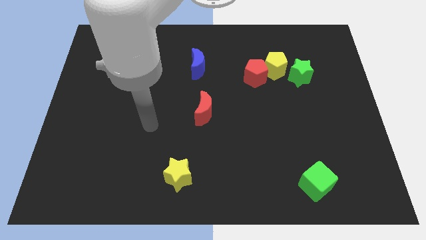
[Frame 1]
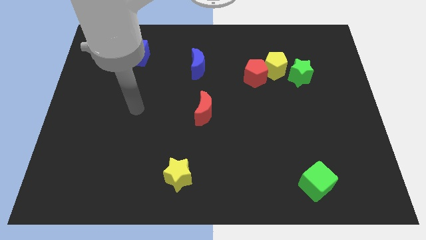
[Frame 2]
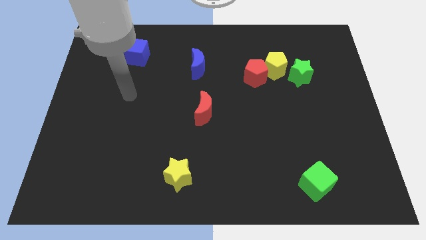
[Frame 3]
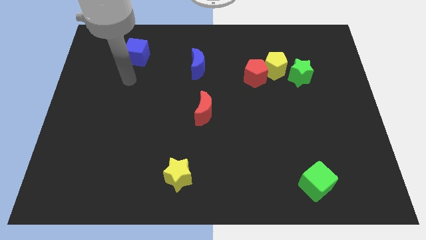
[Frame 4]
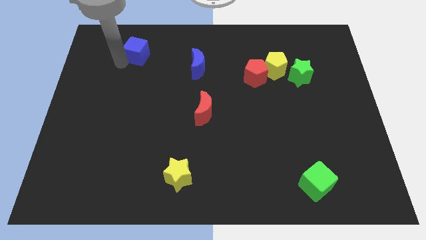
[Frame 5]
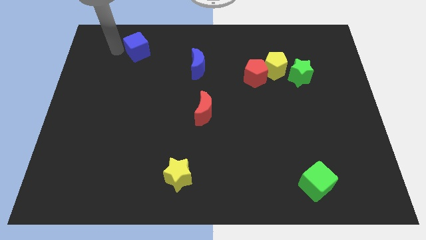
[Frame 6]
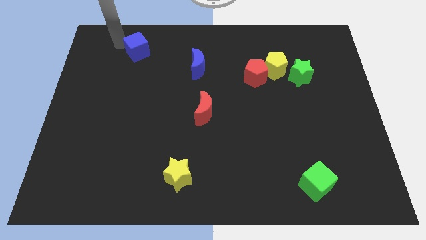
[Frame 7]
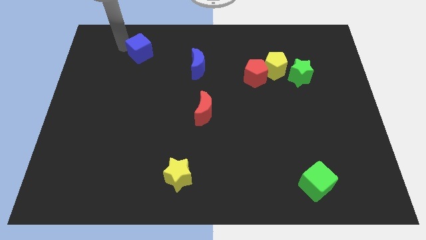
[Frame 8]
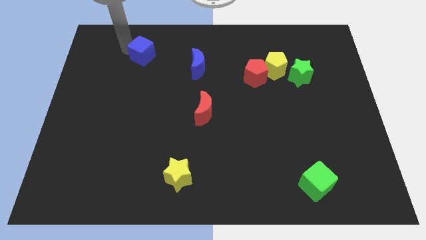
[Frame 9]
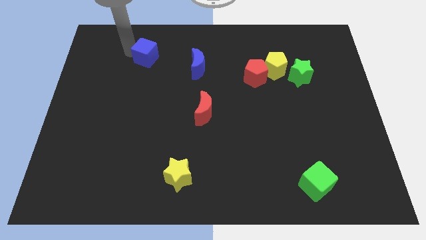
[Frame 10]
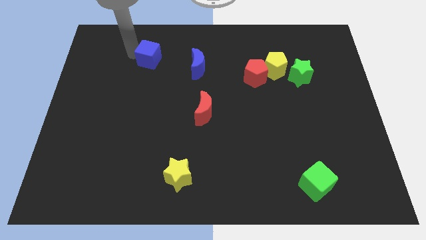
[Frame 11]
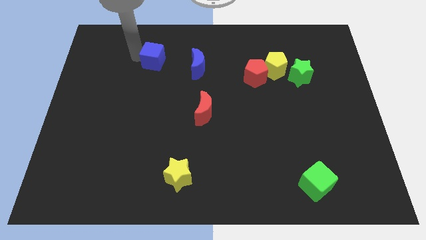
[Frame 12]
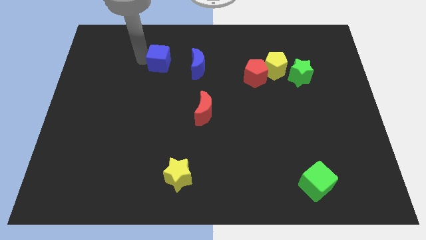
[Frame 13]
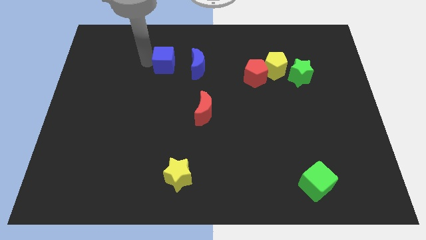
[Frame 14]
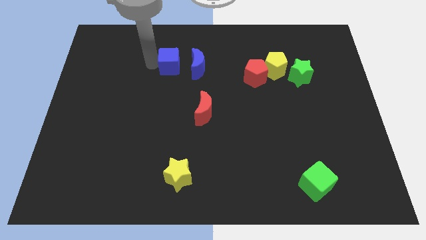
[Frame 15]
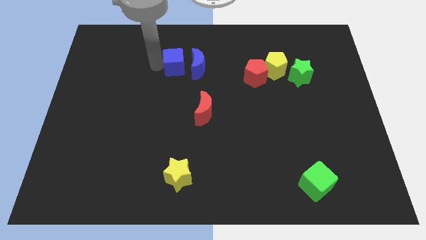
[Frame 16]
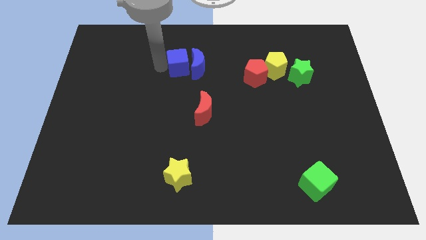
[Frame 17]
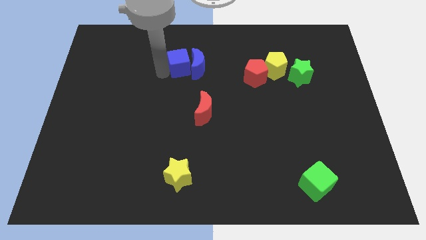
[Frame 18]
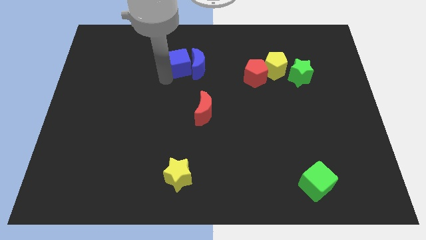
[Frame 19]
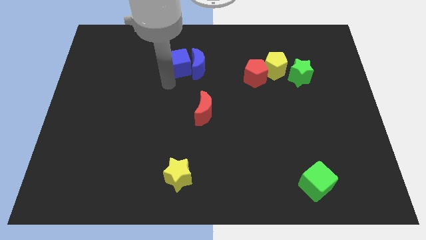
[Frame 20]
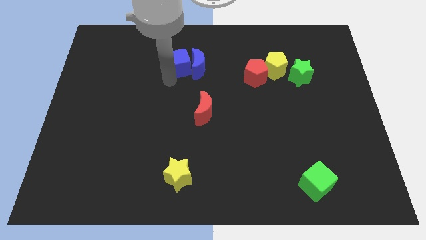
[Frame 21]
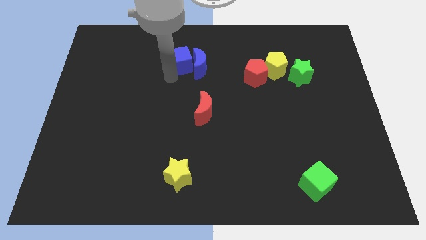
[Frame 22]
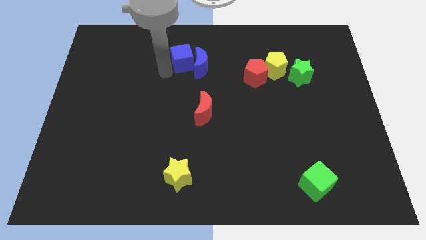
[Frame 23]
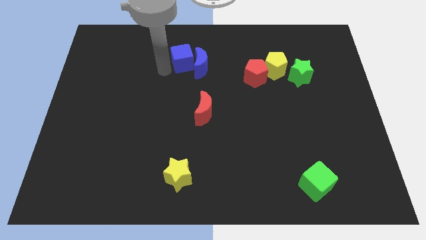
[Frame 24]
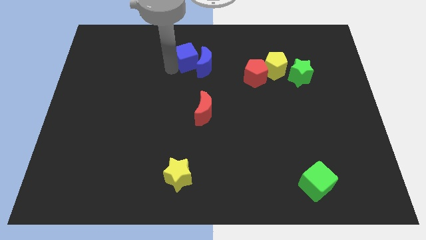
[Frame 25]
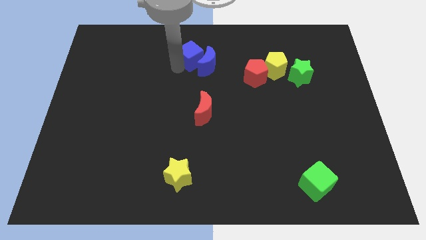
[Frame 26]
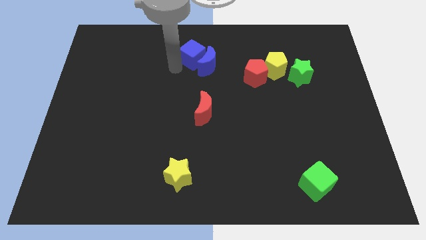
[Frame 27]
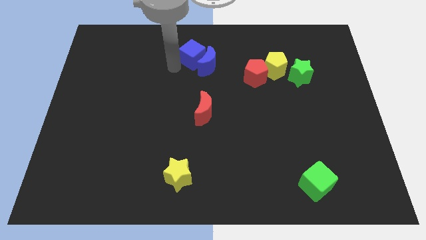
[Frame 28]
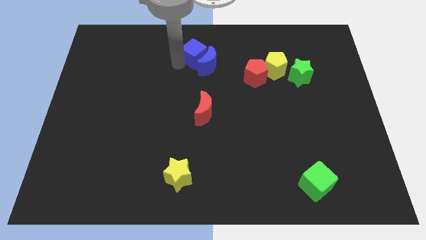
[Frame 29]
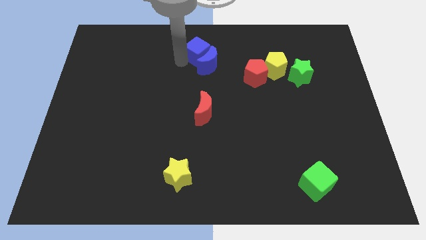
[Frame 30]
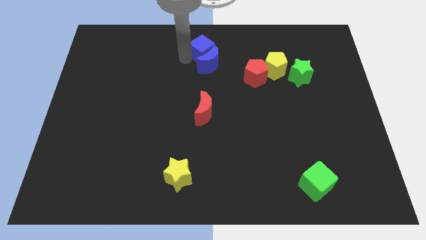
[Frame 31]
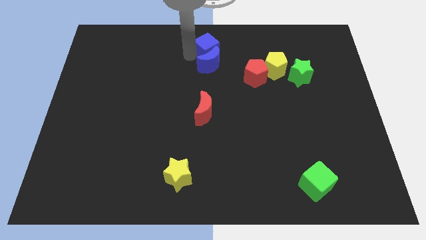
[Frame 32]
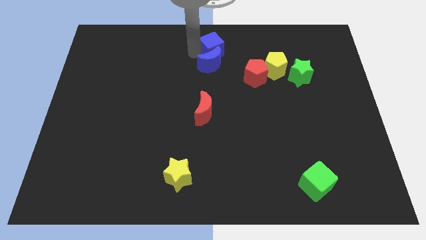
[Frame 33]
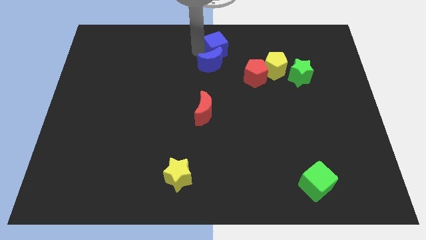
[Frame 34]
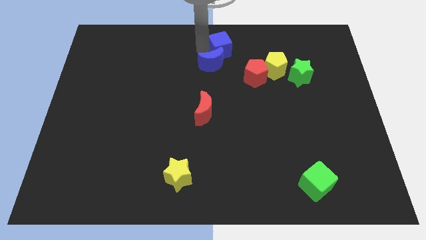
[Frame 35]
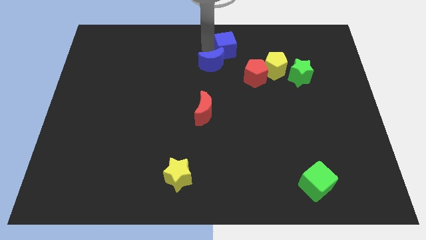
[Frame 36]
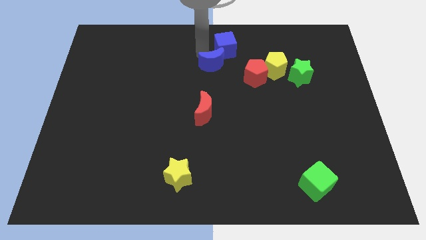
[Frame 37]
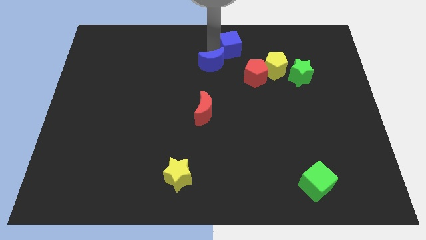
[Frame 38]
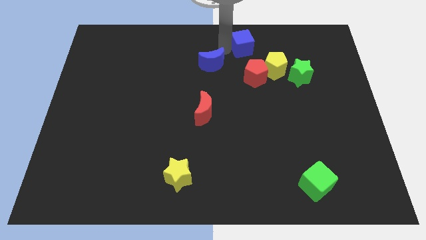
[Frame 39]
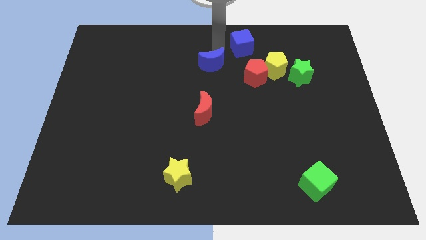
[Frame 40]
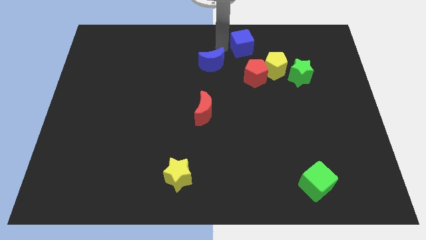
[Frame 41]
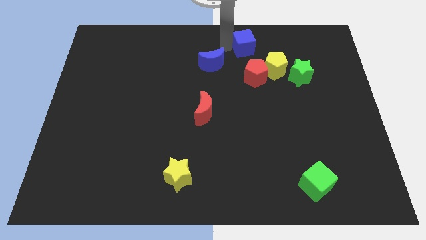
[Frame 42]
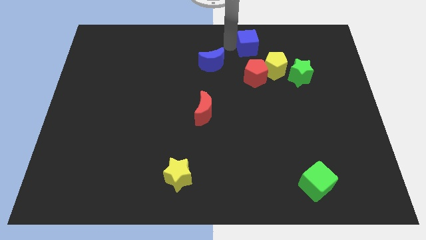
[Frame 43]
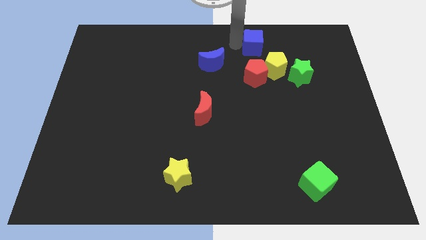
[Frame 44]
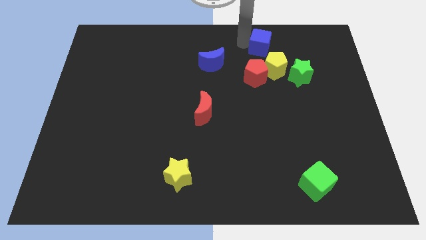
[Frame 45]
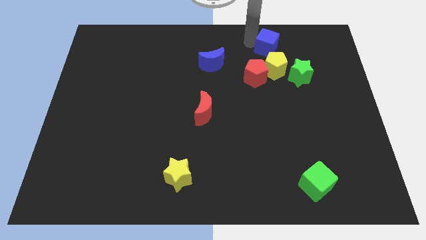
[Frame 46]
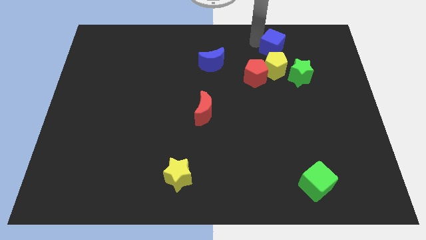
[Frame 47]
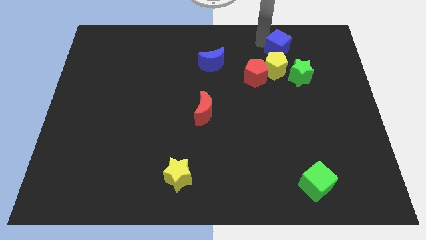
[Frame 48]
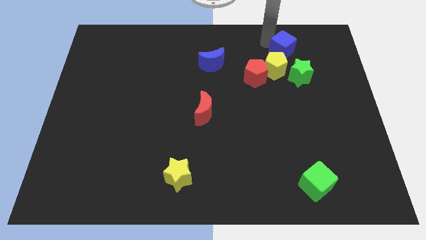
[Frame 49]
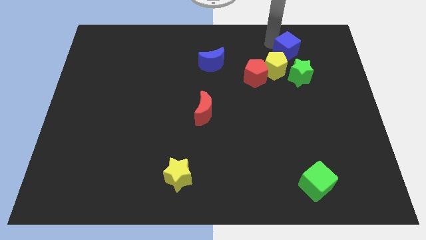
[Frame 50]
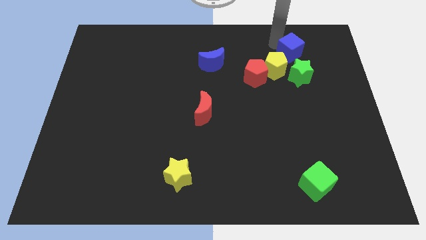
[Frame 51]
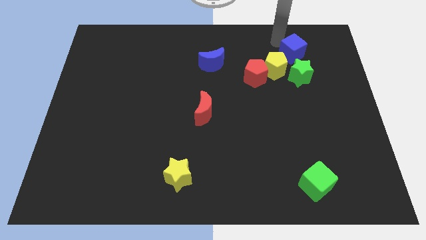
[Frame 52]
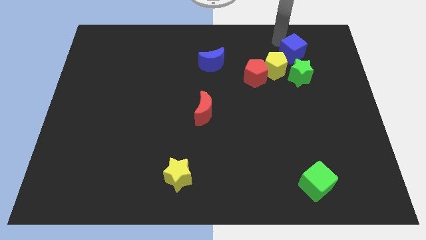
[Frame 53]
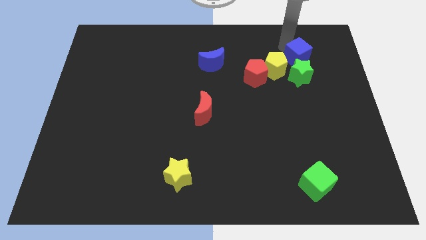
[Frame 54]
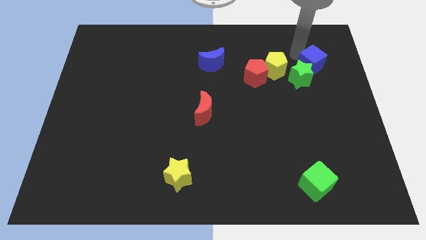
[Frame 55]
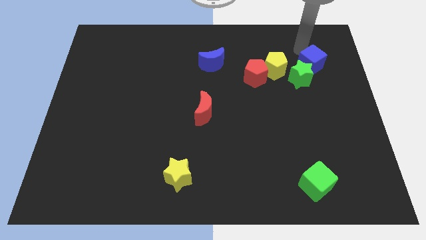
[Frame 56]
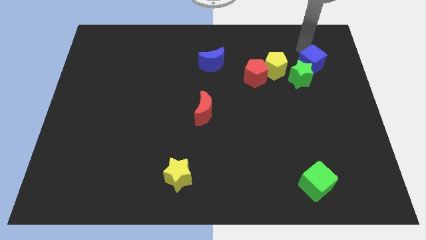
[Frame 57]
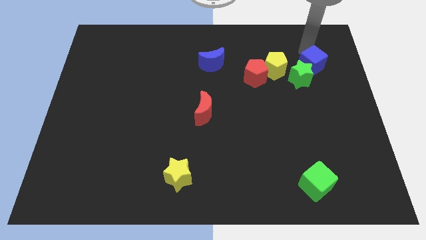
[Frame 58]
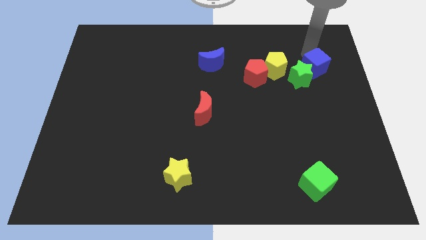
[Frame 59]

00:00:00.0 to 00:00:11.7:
slide the blue cube to the right of the red pentagon
